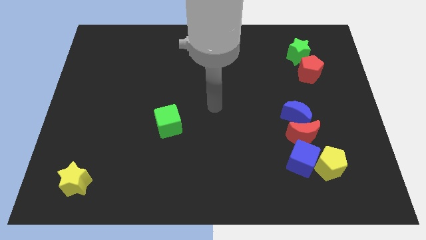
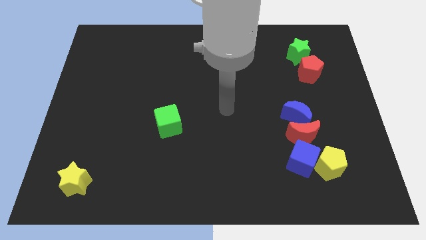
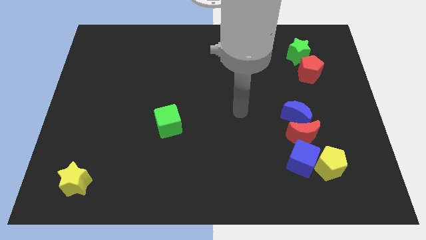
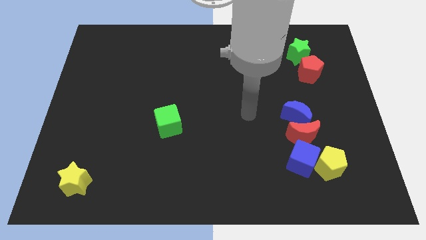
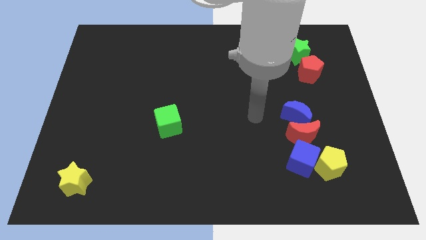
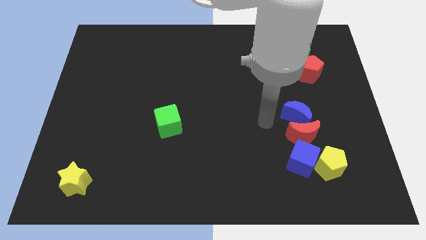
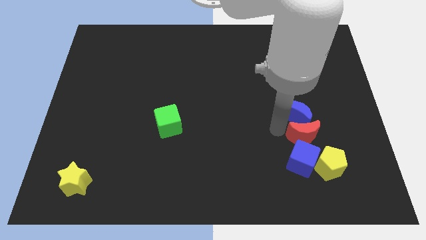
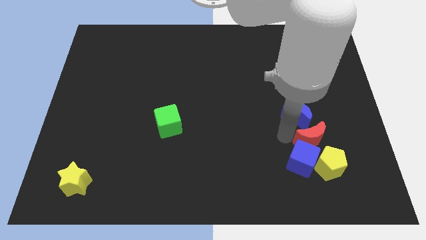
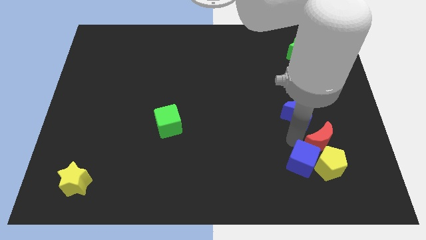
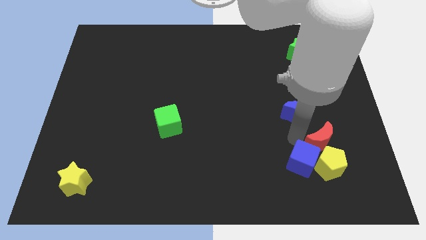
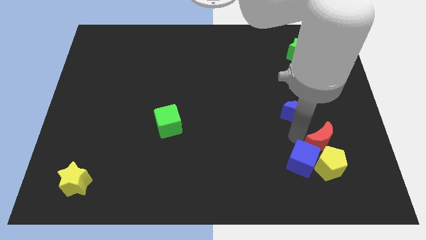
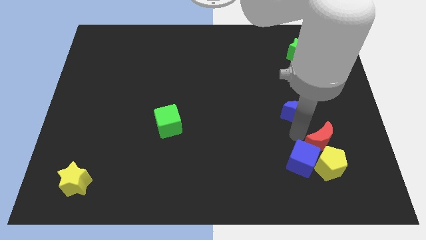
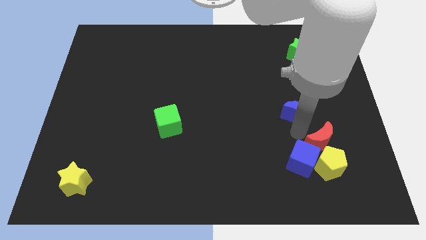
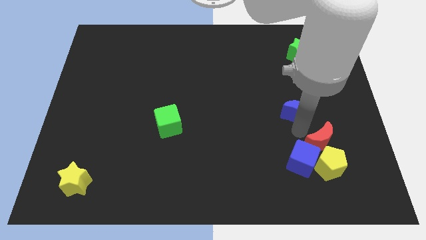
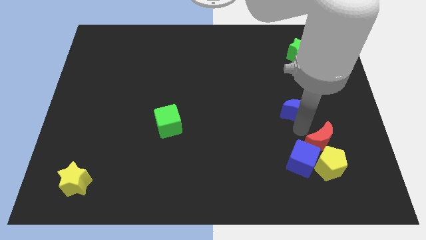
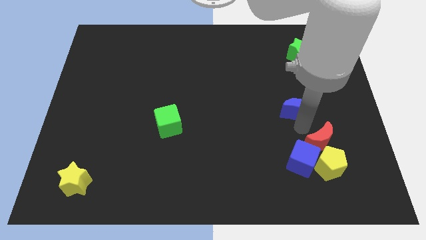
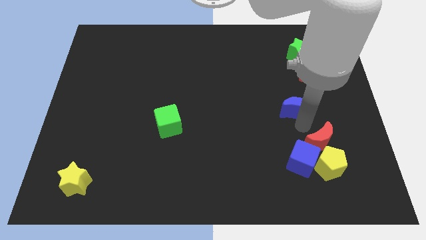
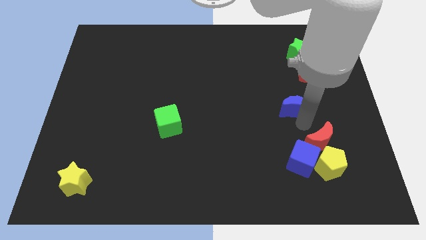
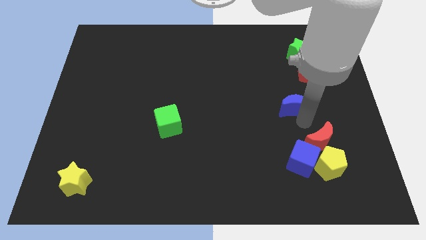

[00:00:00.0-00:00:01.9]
separate the blue moon from the red moon

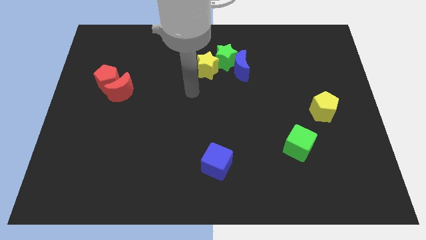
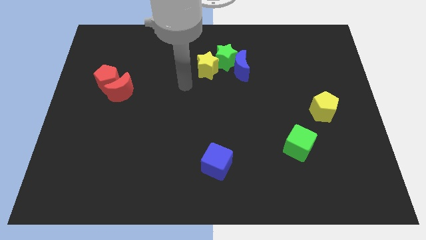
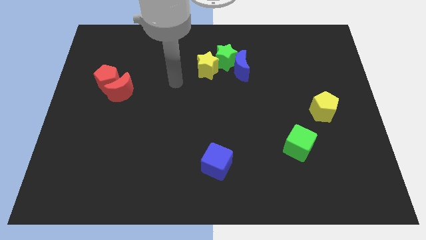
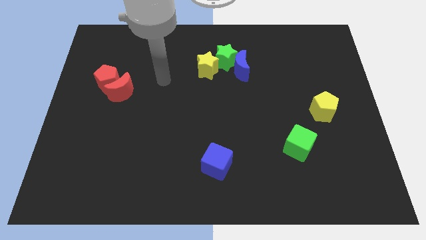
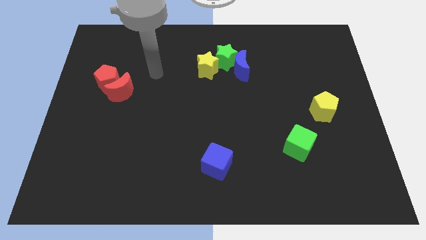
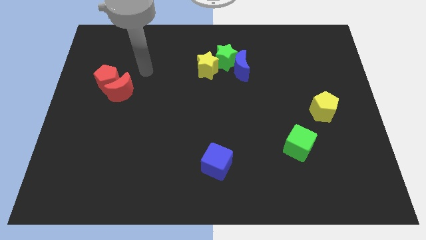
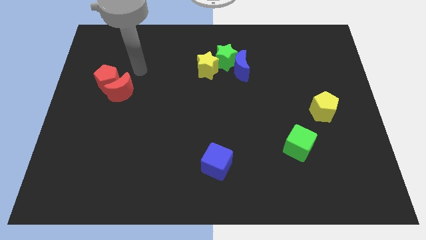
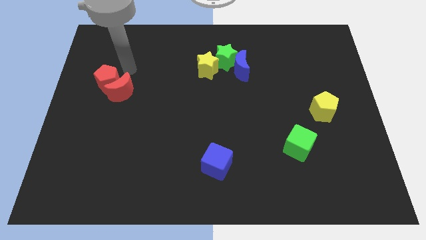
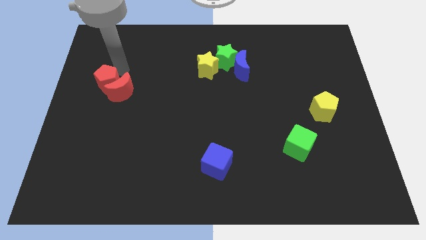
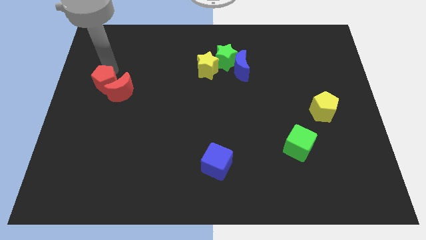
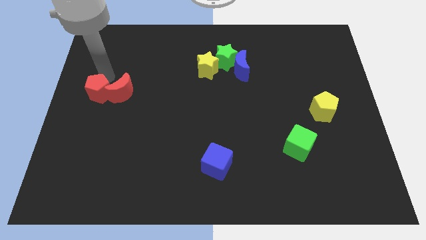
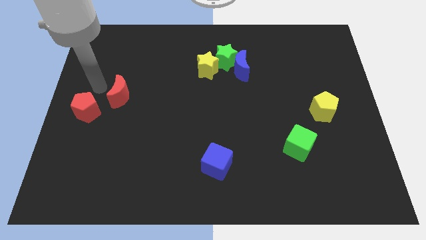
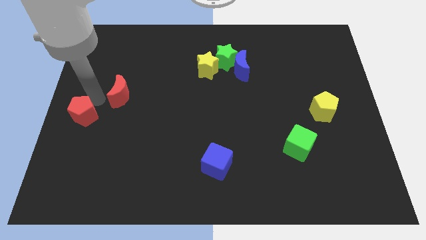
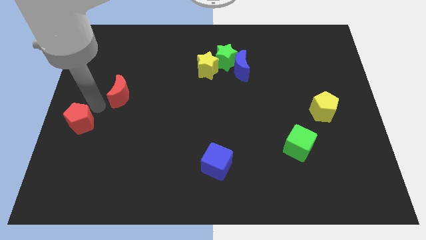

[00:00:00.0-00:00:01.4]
separate the red moon from the red pentagon

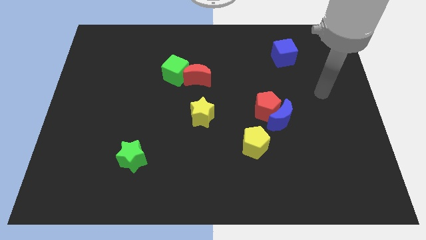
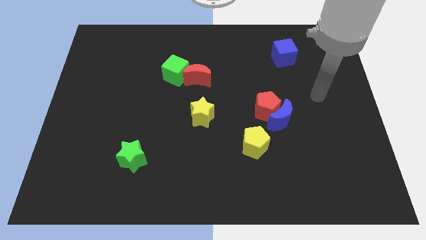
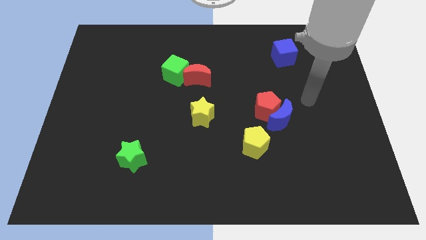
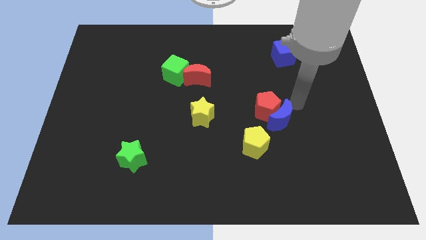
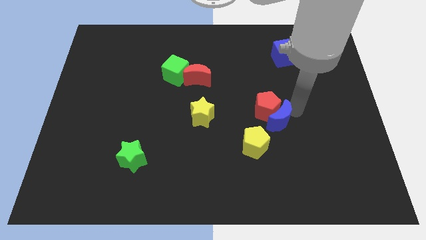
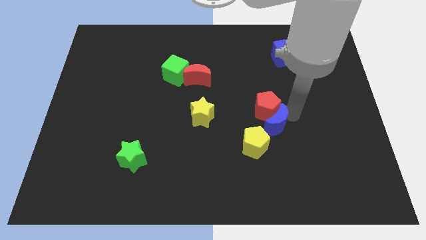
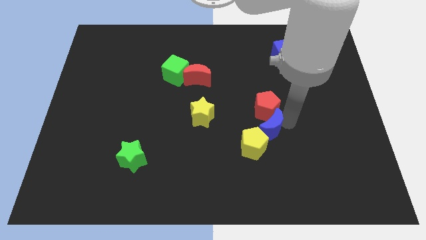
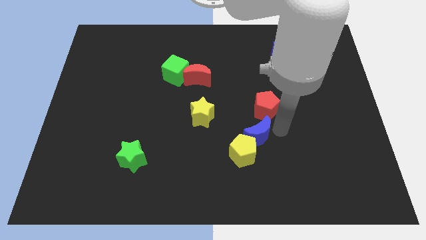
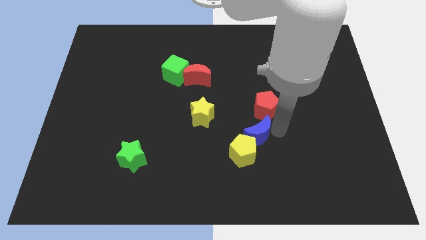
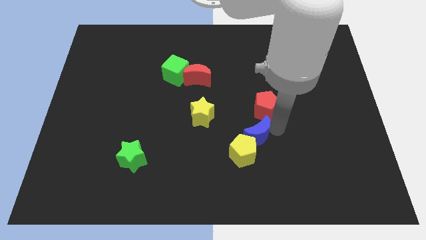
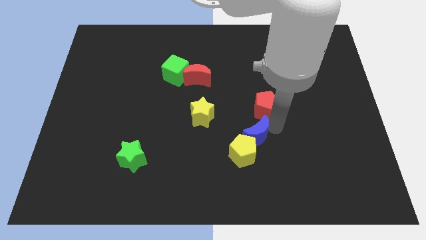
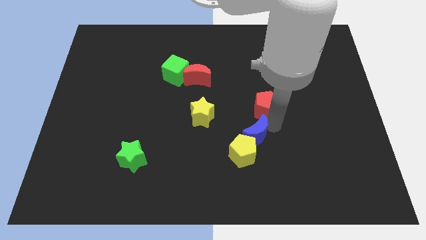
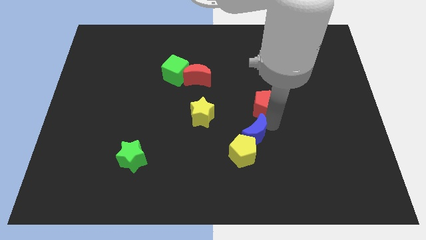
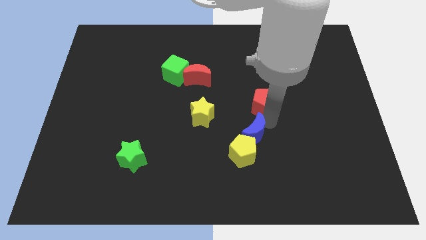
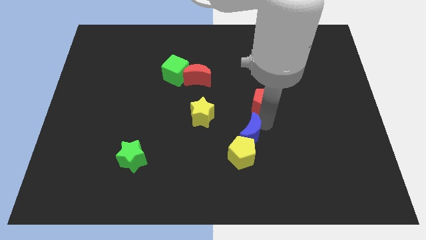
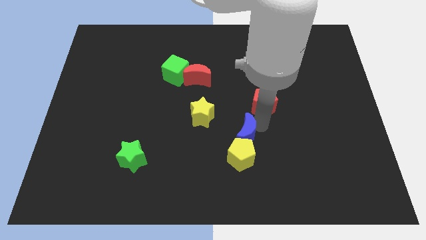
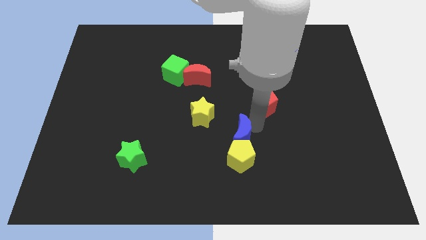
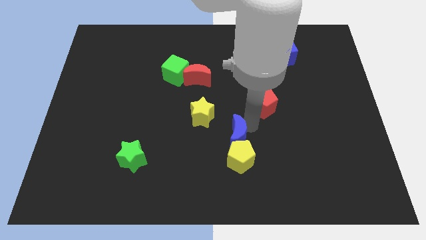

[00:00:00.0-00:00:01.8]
pull the red pentagon apart from the blue moon

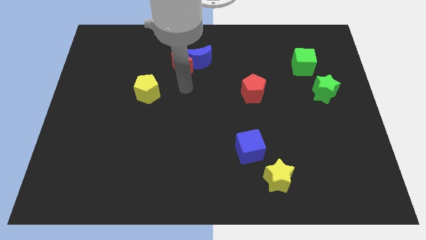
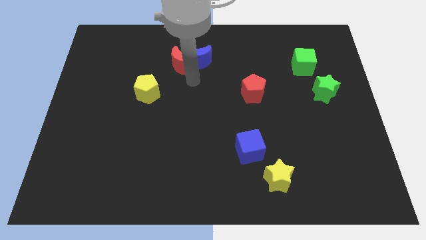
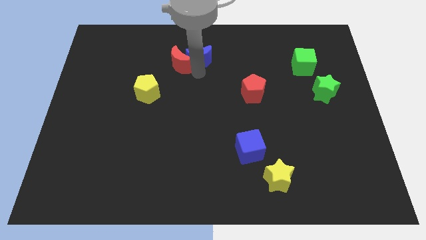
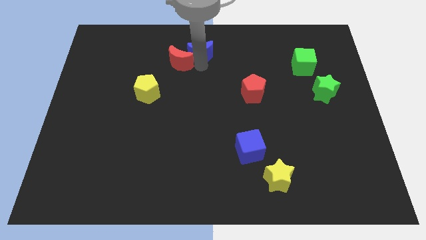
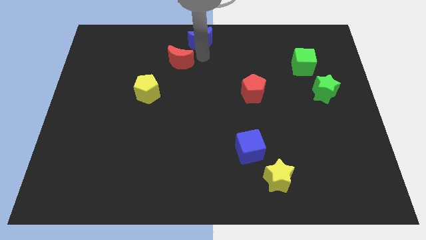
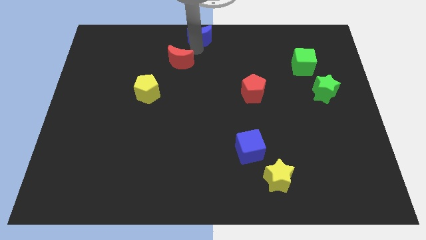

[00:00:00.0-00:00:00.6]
pull the red moon apart from the blue moon

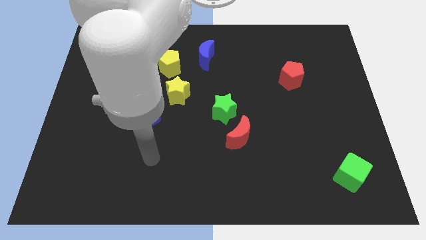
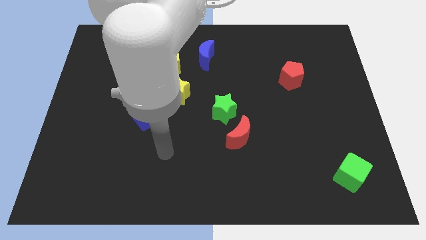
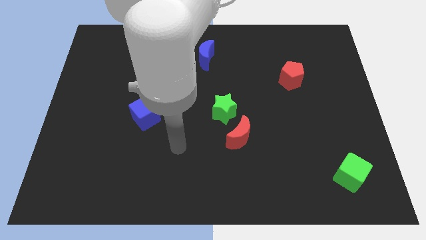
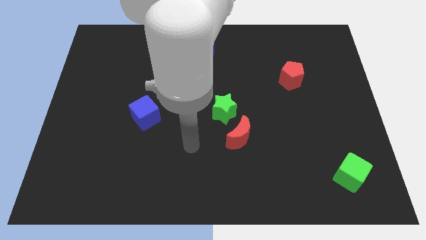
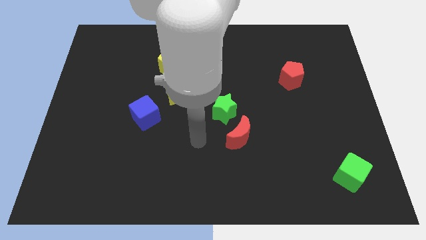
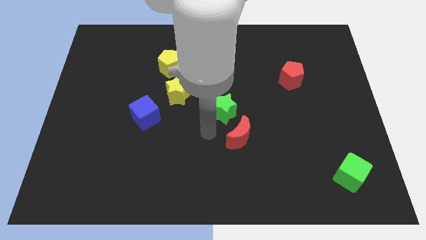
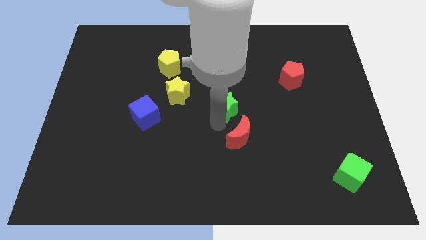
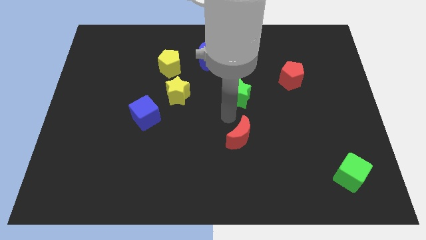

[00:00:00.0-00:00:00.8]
move the red moon away from the green star

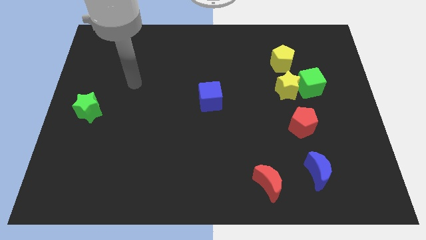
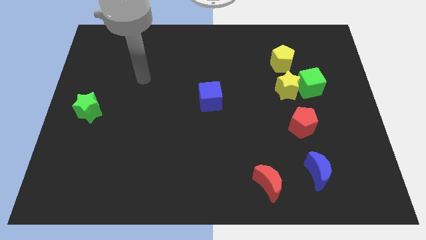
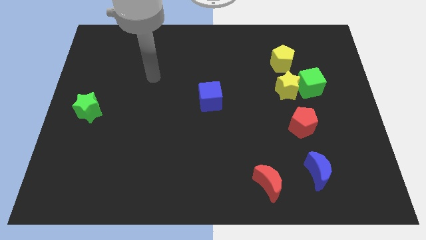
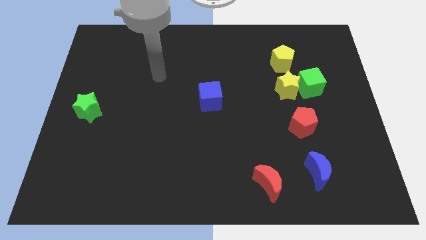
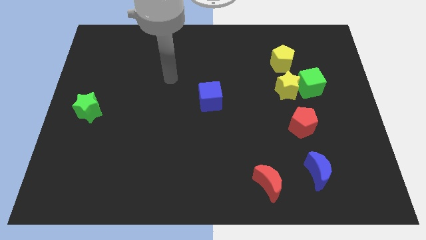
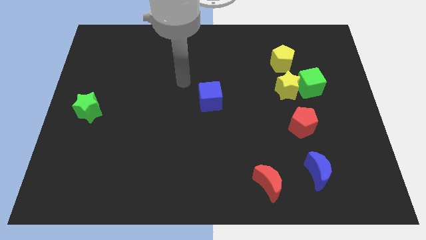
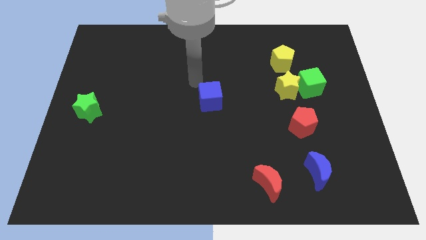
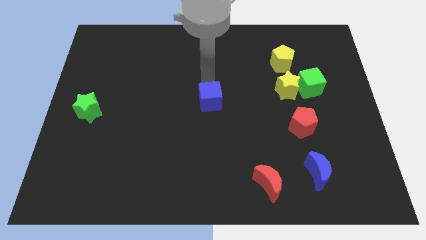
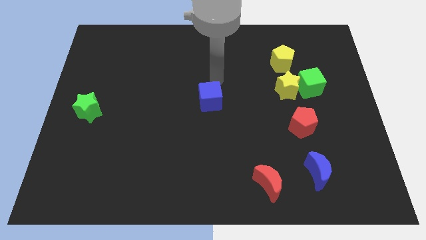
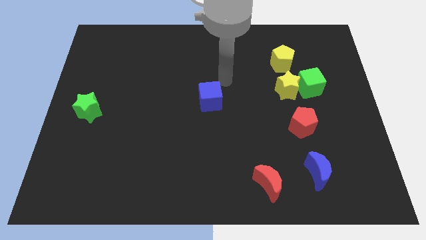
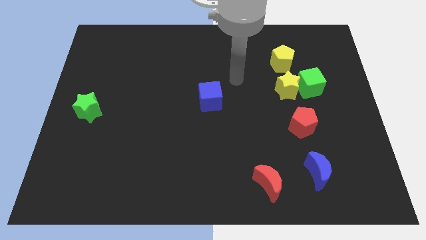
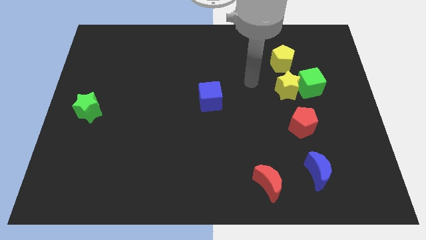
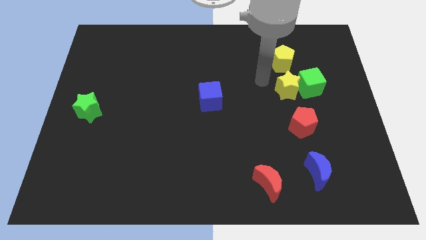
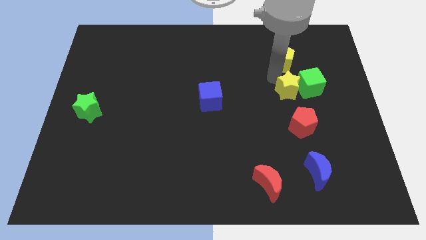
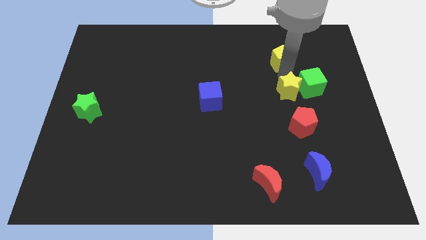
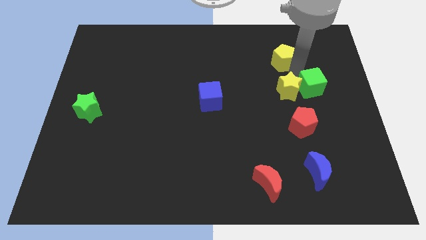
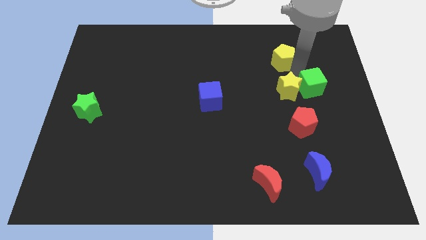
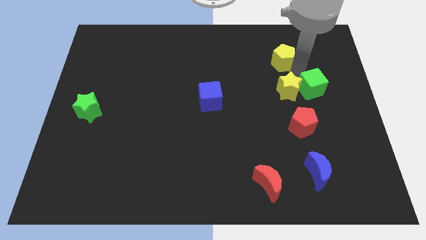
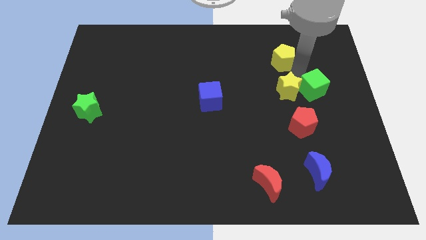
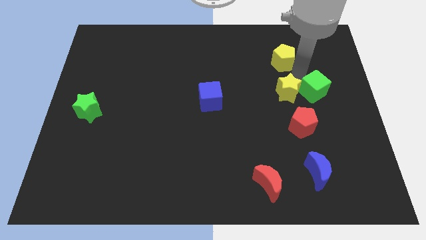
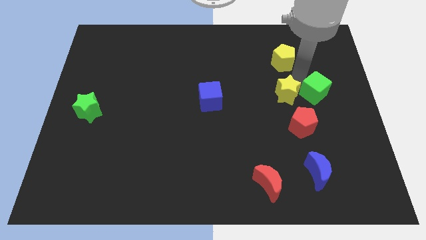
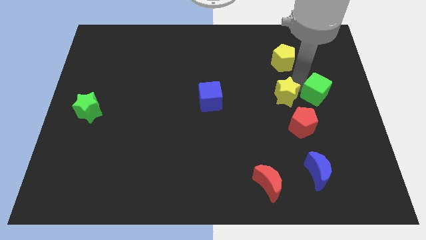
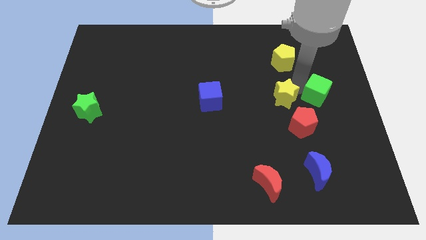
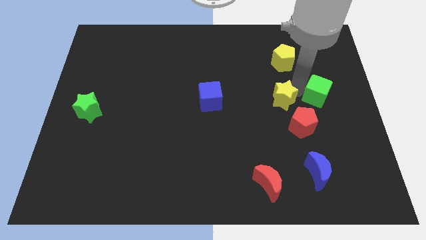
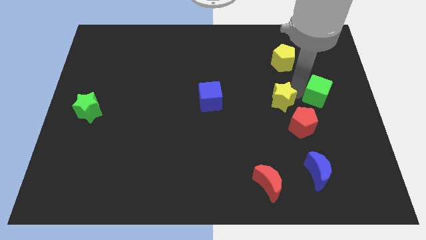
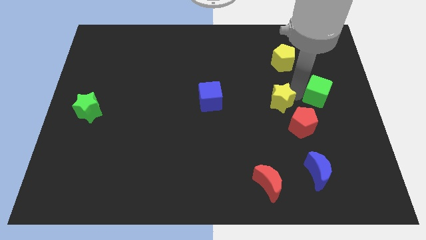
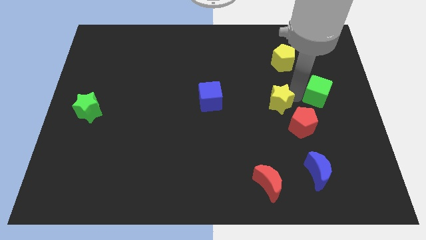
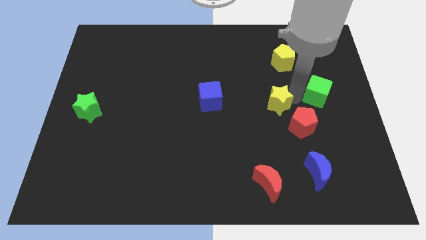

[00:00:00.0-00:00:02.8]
pull the yellow star apart from the green cube and yellow pentagon
